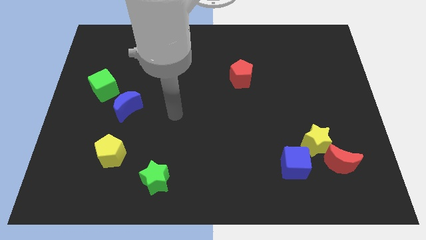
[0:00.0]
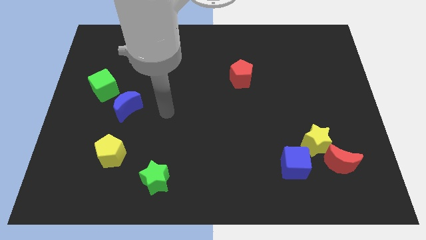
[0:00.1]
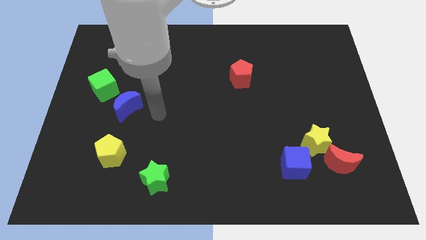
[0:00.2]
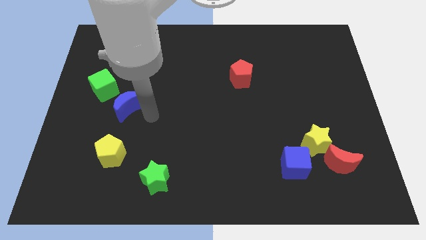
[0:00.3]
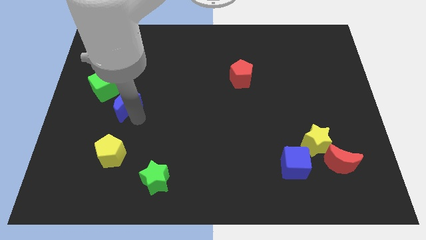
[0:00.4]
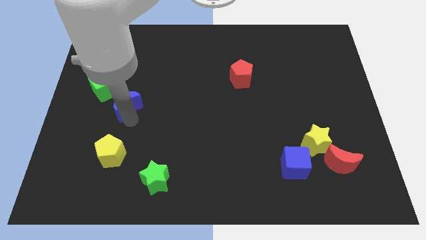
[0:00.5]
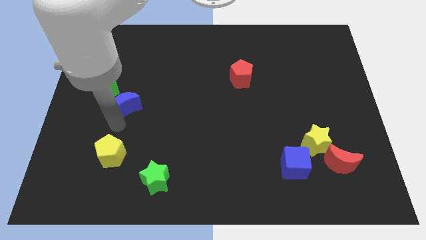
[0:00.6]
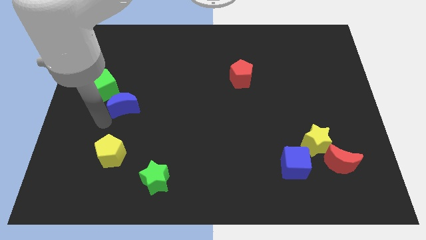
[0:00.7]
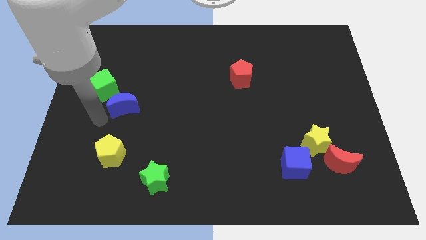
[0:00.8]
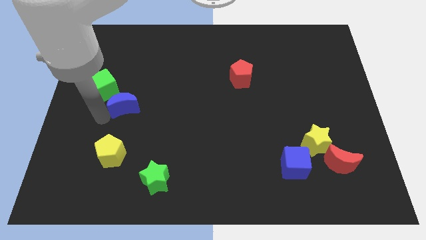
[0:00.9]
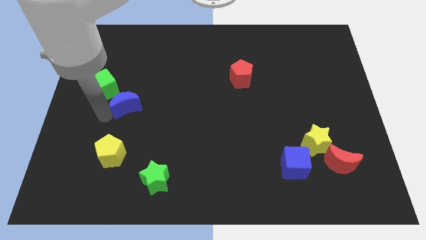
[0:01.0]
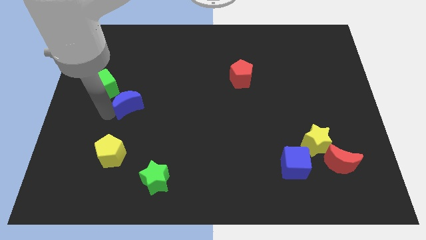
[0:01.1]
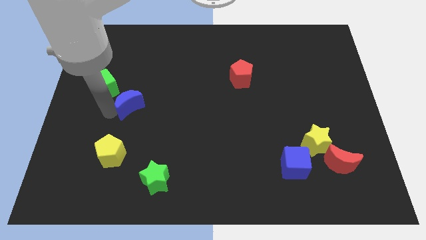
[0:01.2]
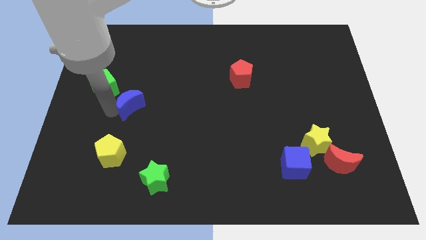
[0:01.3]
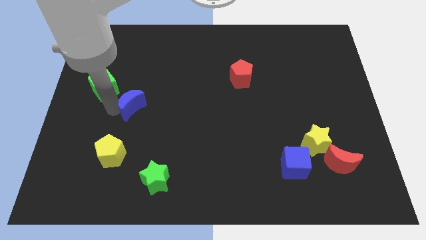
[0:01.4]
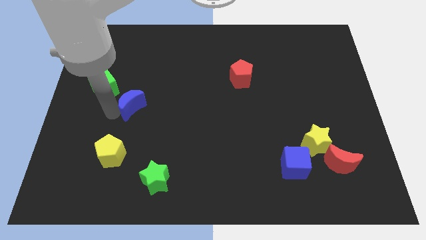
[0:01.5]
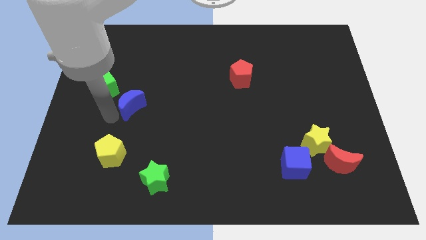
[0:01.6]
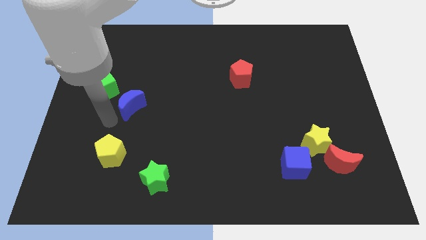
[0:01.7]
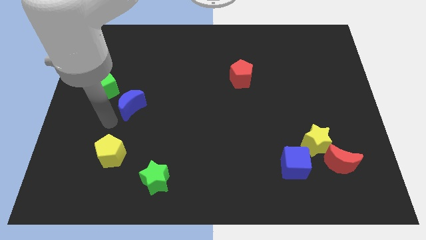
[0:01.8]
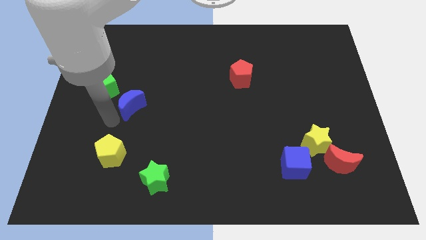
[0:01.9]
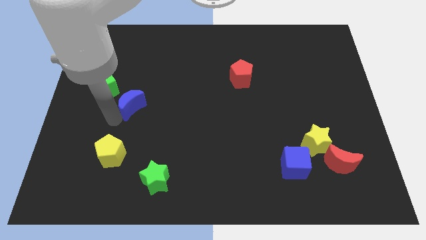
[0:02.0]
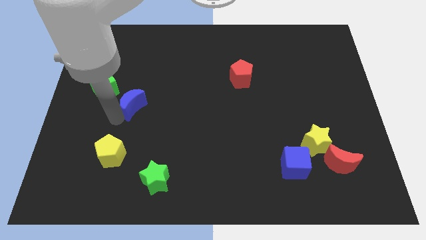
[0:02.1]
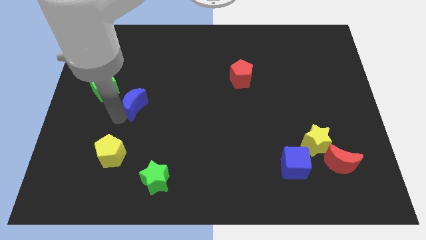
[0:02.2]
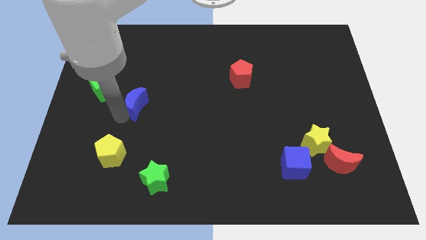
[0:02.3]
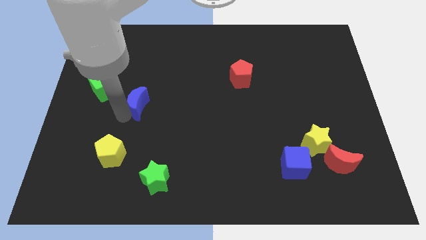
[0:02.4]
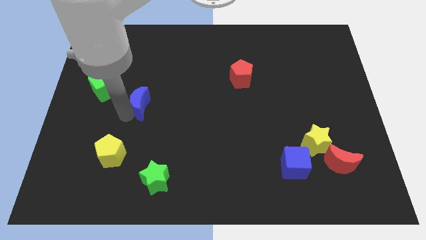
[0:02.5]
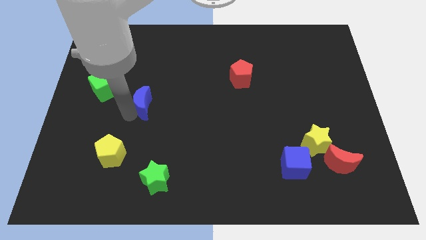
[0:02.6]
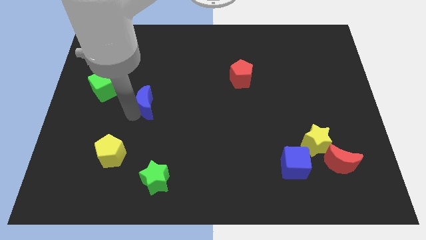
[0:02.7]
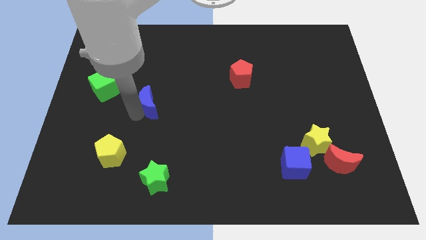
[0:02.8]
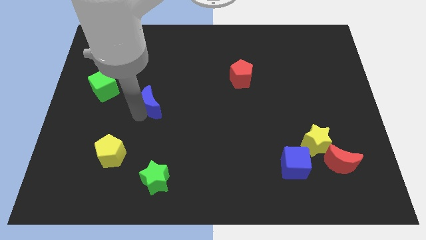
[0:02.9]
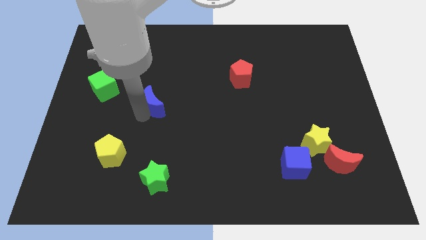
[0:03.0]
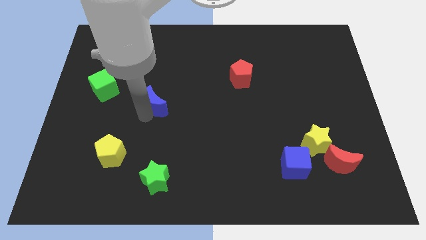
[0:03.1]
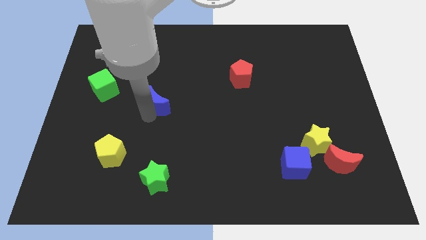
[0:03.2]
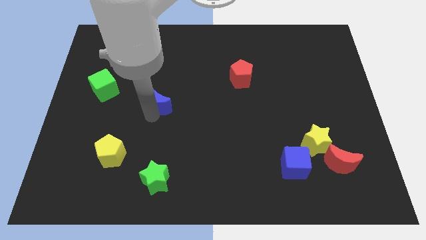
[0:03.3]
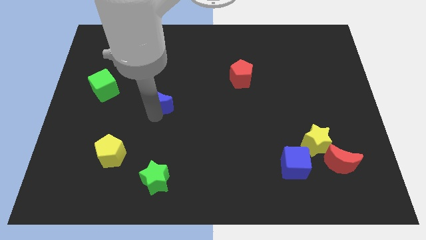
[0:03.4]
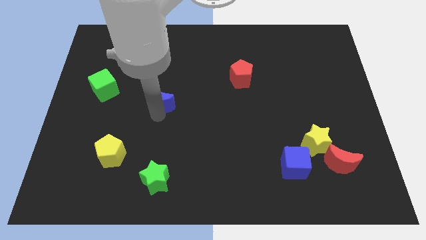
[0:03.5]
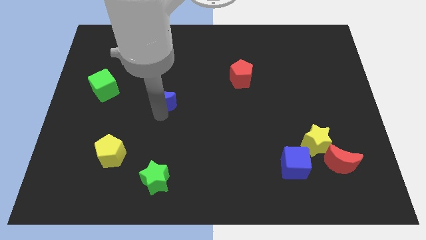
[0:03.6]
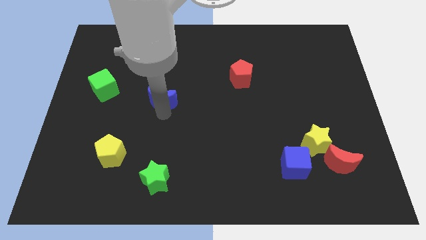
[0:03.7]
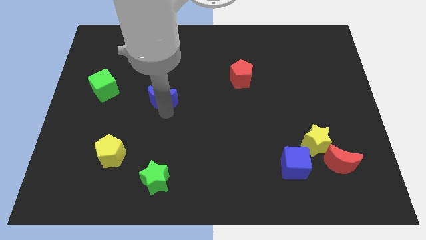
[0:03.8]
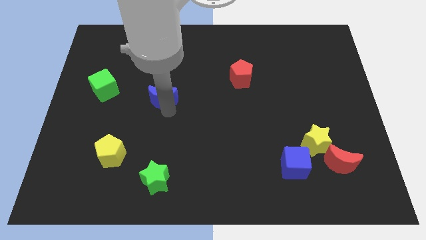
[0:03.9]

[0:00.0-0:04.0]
push the blue moon a little bit diagonally upwards and to the right

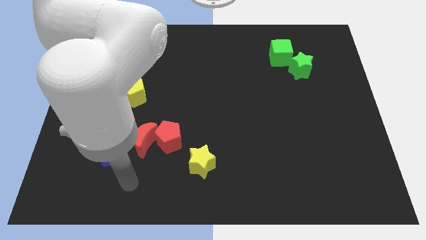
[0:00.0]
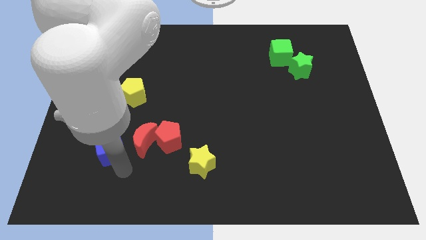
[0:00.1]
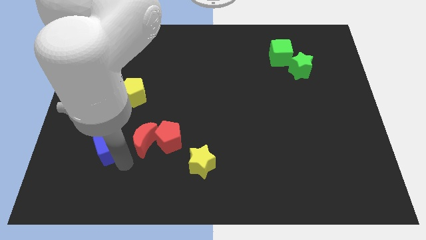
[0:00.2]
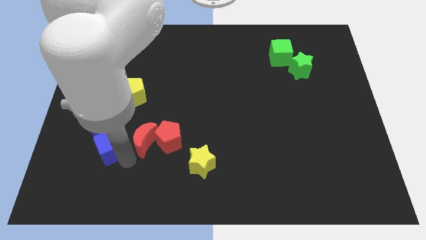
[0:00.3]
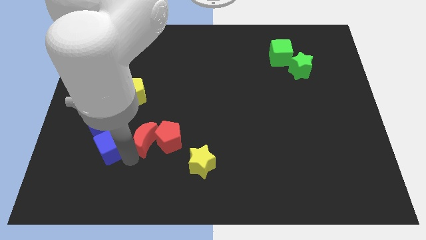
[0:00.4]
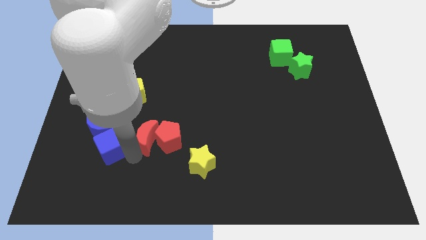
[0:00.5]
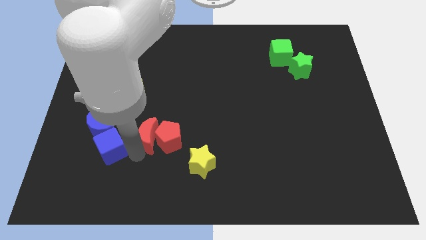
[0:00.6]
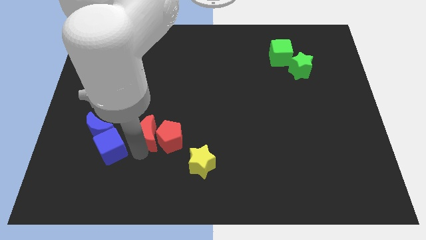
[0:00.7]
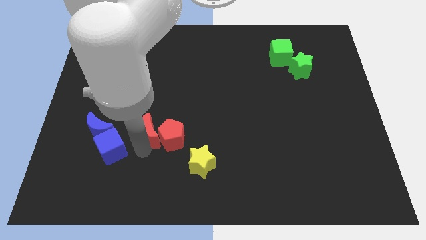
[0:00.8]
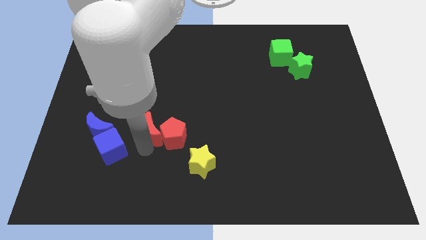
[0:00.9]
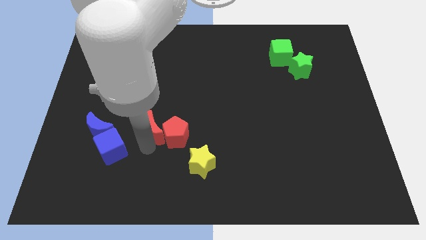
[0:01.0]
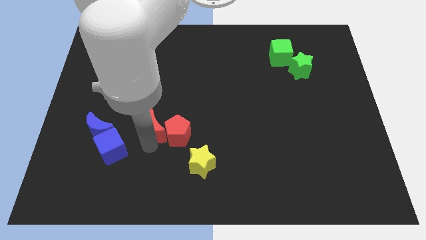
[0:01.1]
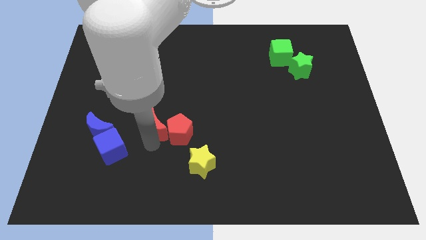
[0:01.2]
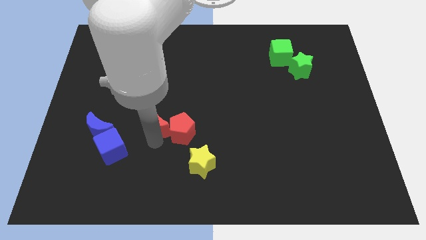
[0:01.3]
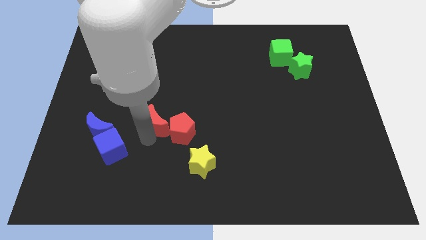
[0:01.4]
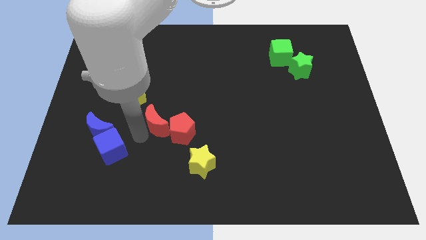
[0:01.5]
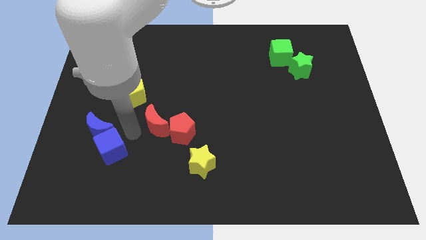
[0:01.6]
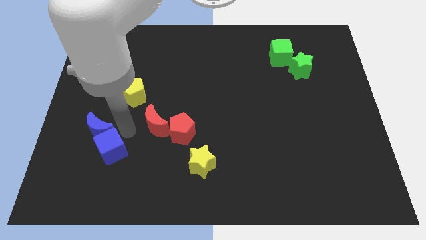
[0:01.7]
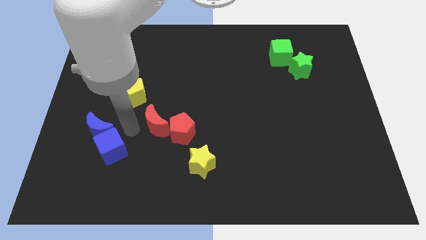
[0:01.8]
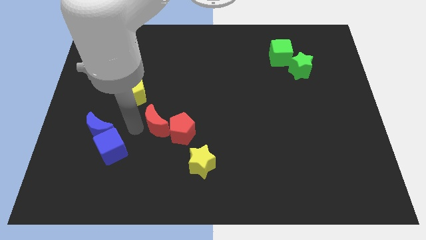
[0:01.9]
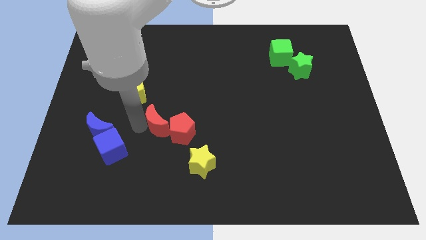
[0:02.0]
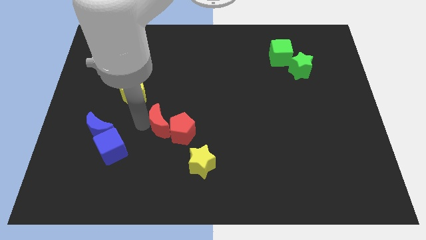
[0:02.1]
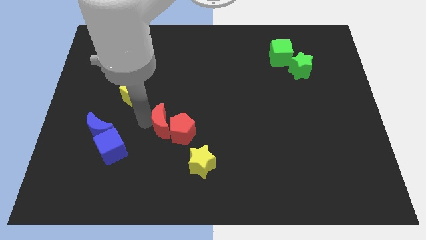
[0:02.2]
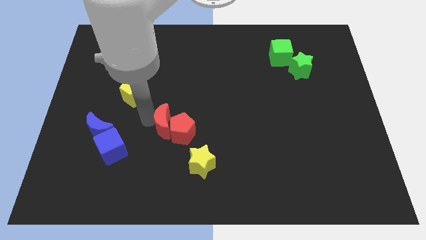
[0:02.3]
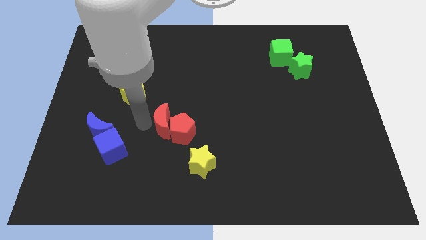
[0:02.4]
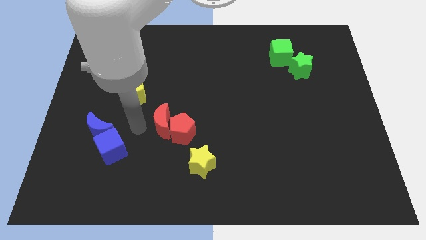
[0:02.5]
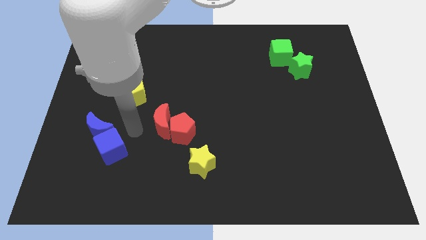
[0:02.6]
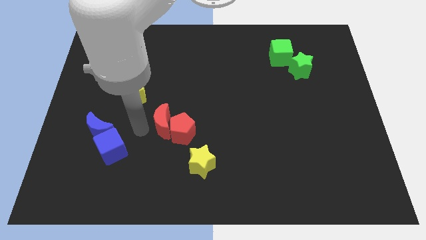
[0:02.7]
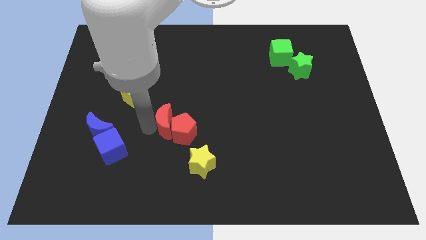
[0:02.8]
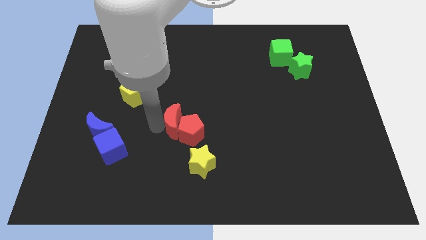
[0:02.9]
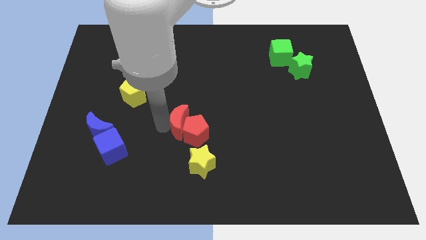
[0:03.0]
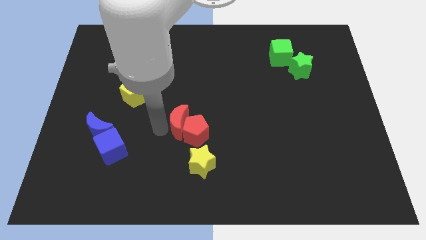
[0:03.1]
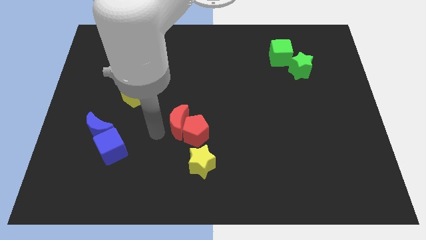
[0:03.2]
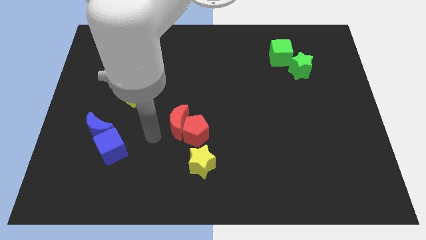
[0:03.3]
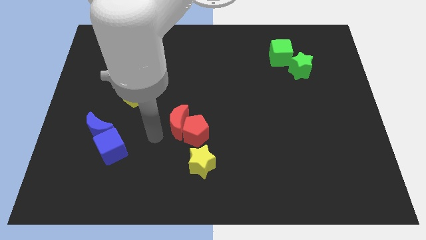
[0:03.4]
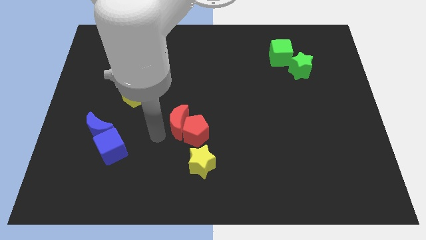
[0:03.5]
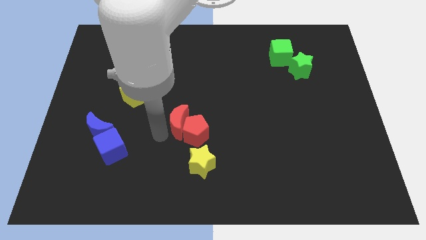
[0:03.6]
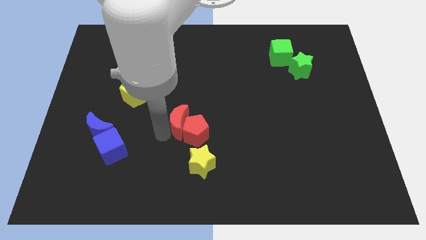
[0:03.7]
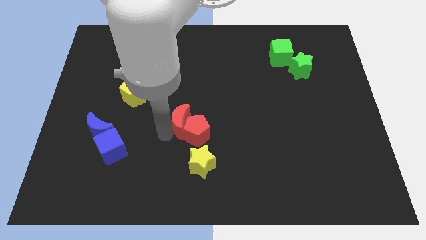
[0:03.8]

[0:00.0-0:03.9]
slightly push the red moon to the right
